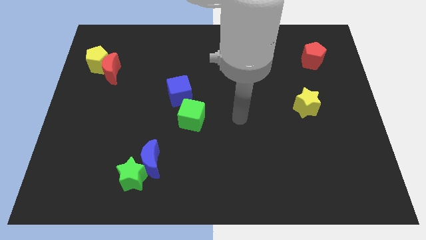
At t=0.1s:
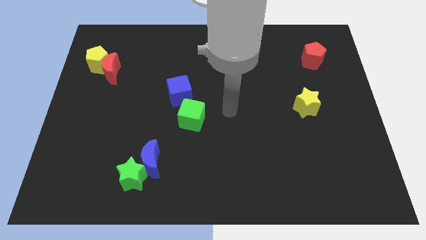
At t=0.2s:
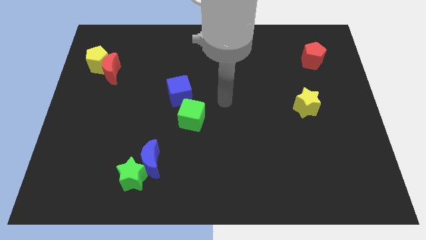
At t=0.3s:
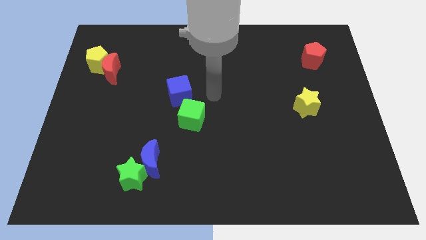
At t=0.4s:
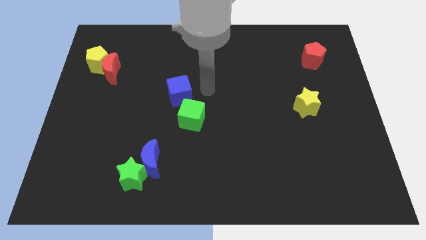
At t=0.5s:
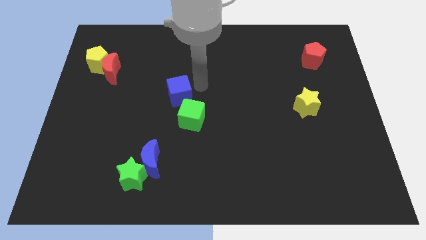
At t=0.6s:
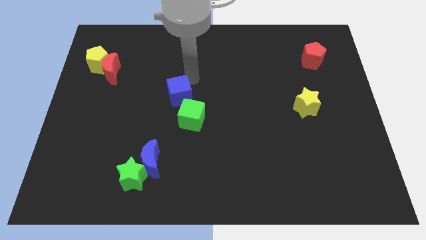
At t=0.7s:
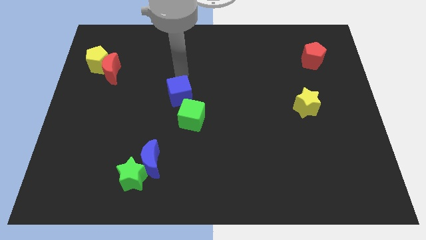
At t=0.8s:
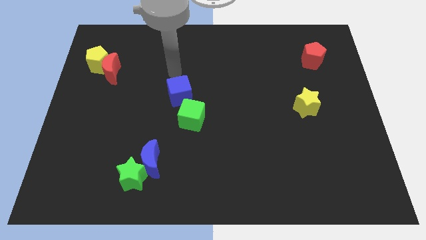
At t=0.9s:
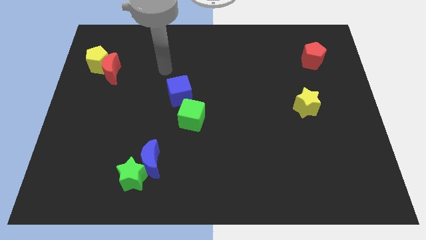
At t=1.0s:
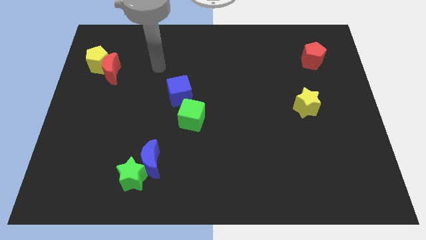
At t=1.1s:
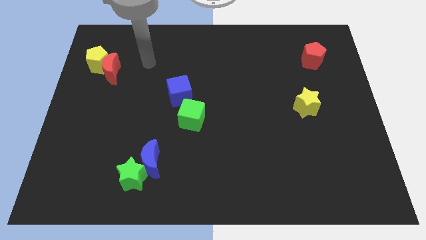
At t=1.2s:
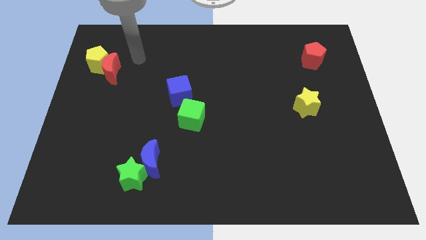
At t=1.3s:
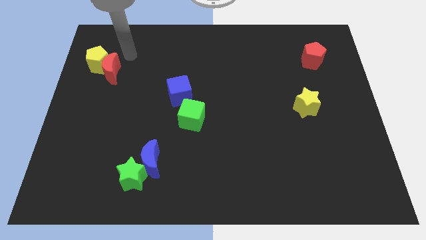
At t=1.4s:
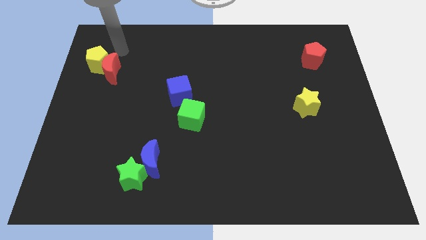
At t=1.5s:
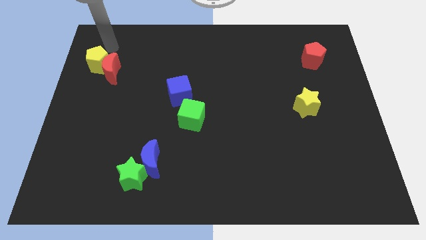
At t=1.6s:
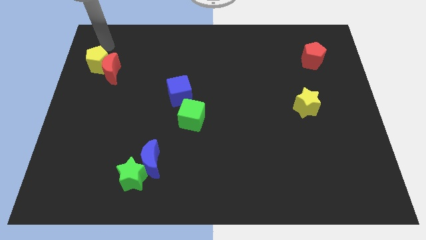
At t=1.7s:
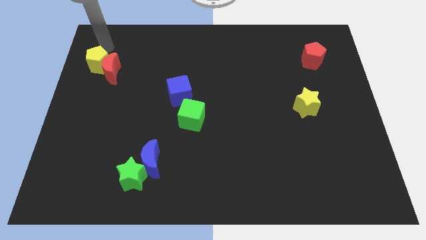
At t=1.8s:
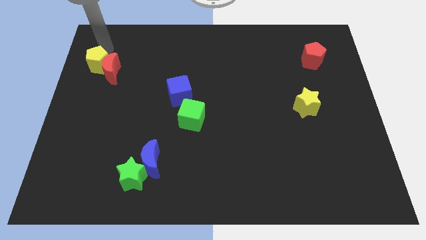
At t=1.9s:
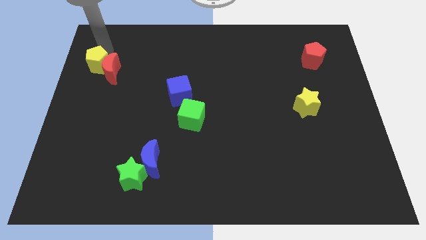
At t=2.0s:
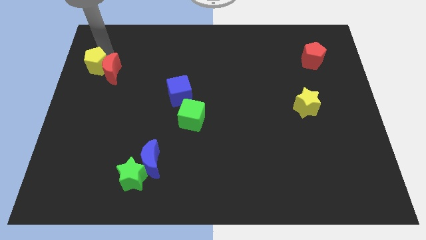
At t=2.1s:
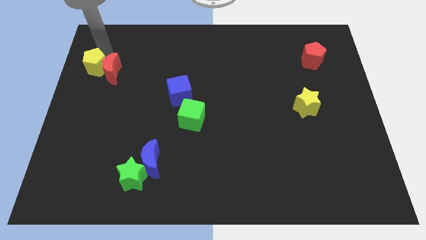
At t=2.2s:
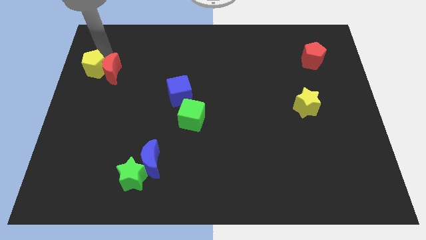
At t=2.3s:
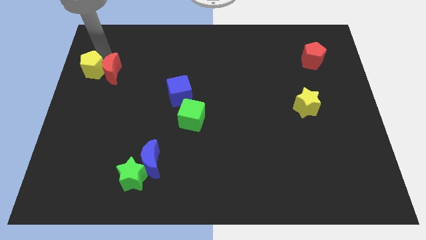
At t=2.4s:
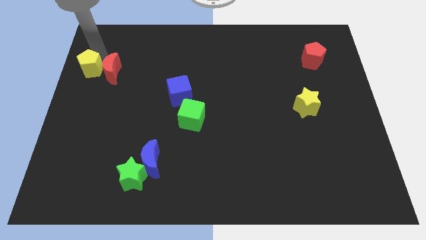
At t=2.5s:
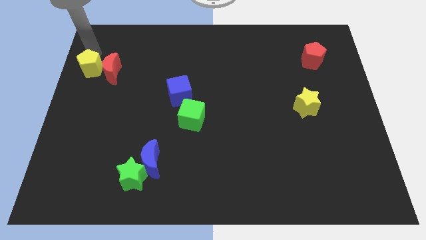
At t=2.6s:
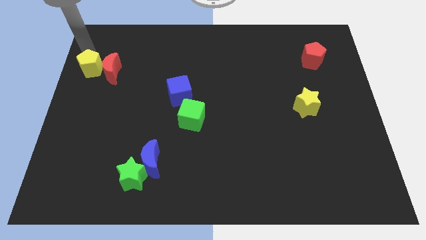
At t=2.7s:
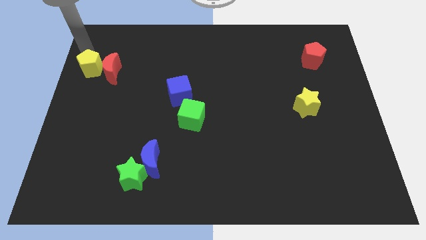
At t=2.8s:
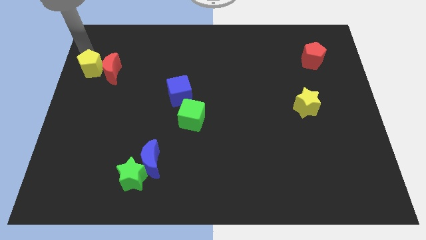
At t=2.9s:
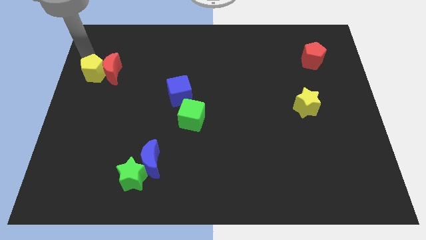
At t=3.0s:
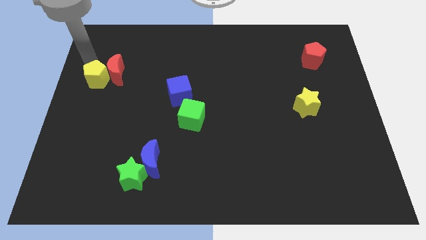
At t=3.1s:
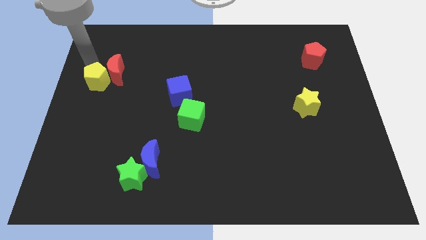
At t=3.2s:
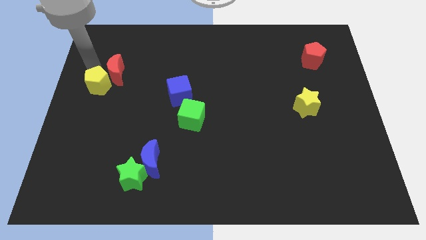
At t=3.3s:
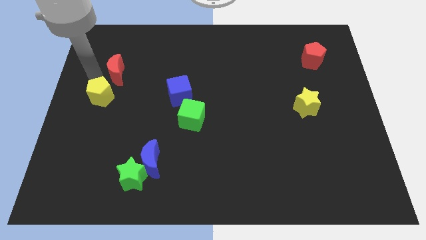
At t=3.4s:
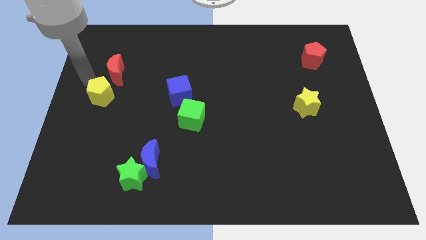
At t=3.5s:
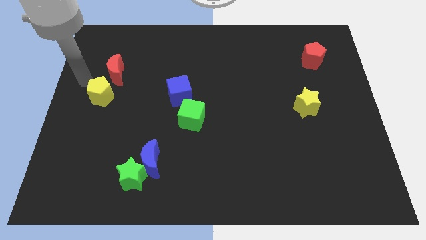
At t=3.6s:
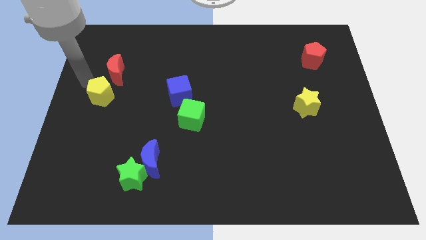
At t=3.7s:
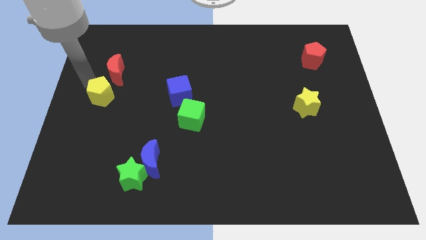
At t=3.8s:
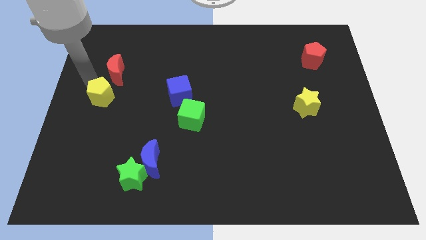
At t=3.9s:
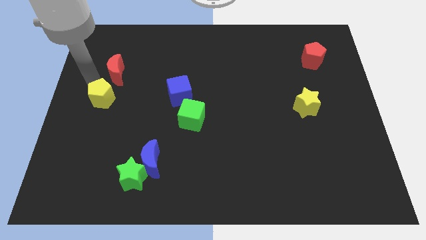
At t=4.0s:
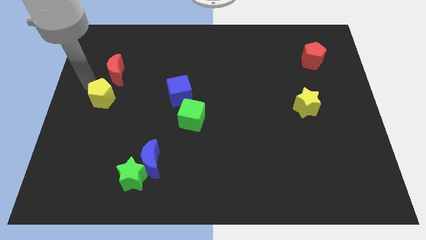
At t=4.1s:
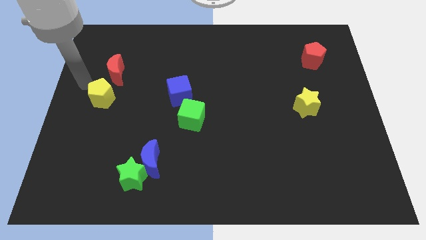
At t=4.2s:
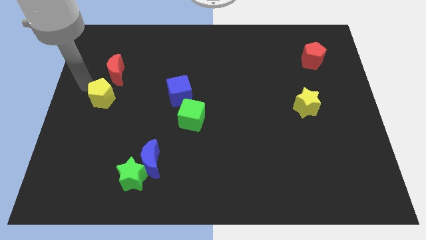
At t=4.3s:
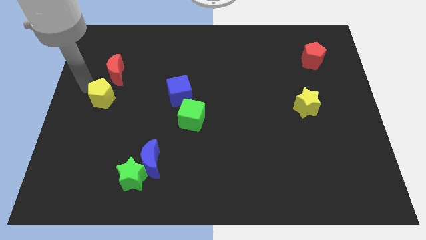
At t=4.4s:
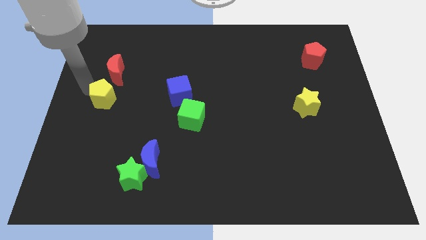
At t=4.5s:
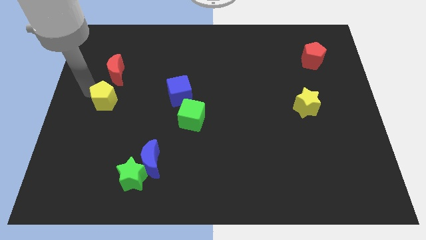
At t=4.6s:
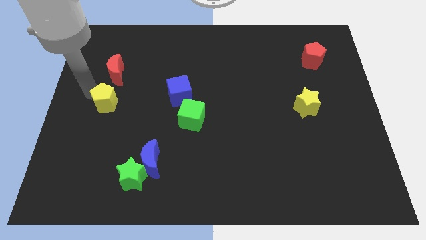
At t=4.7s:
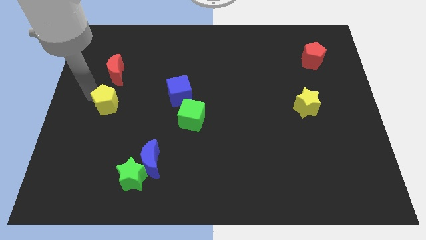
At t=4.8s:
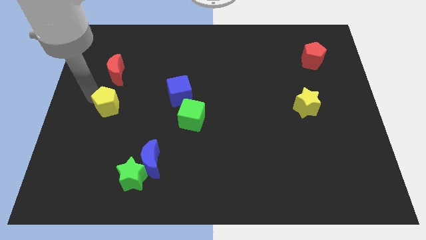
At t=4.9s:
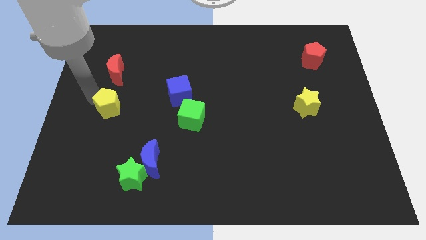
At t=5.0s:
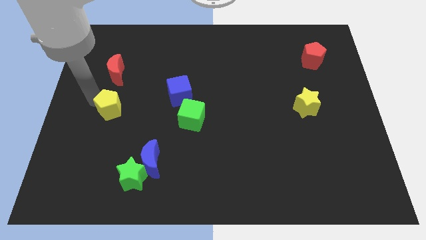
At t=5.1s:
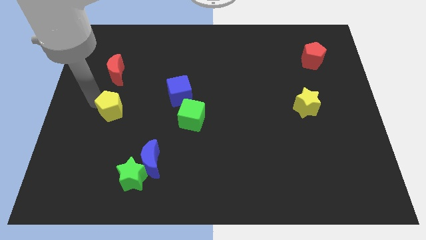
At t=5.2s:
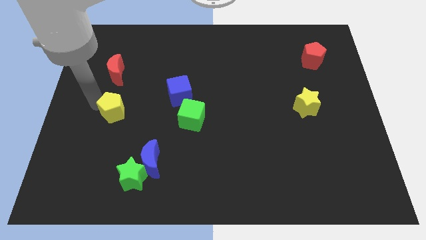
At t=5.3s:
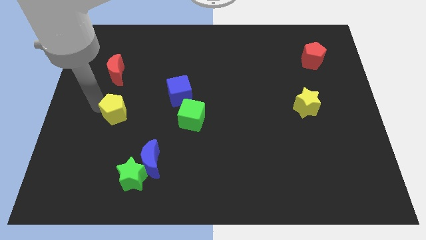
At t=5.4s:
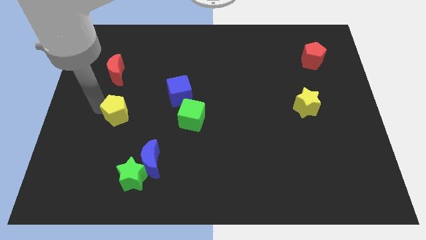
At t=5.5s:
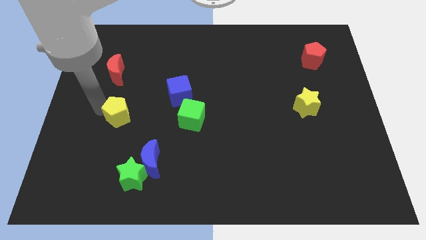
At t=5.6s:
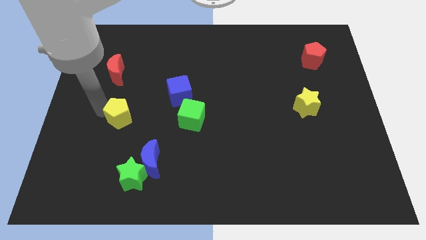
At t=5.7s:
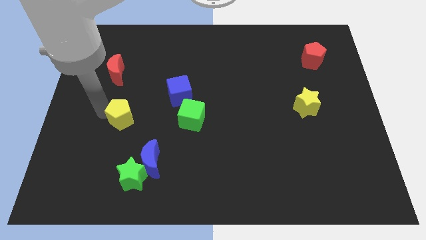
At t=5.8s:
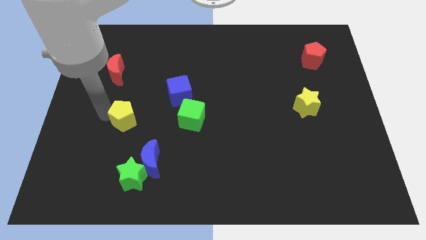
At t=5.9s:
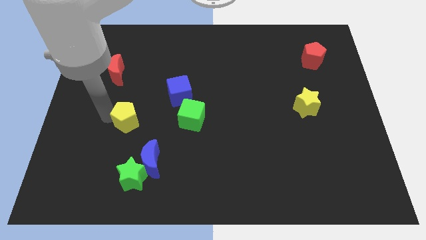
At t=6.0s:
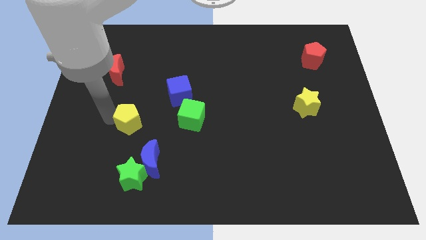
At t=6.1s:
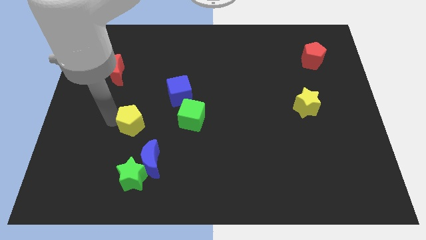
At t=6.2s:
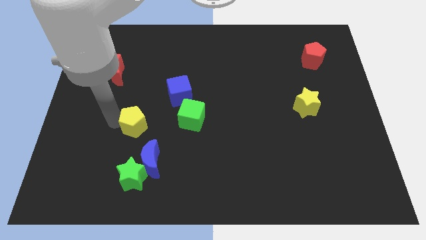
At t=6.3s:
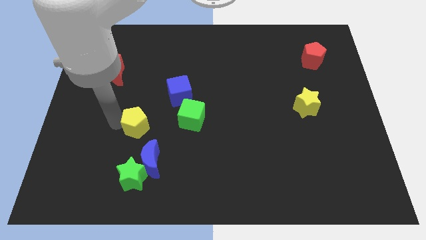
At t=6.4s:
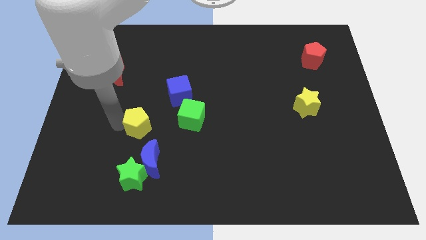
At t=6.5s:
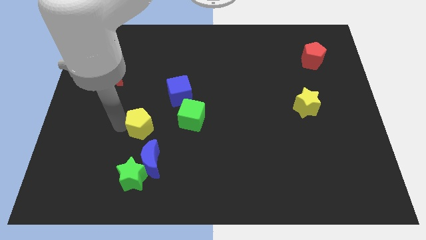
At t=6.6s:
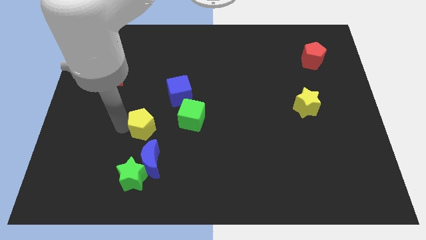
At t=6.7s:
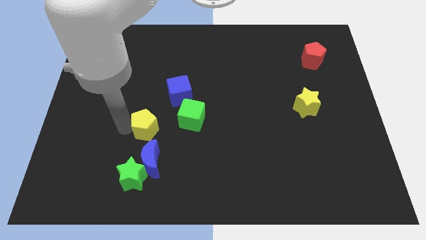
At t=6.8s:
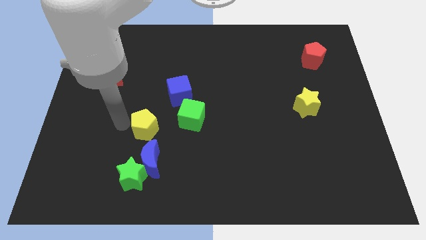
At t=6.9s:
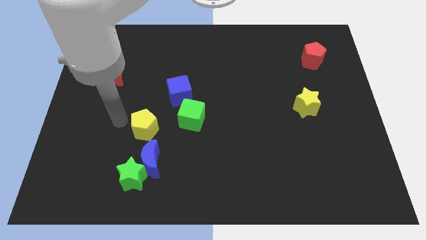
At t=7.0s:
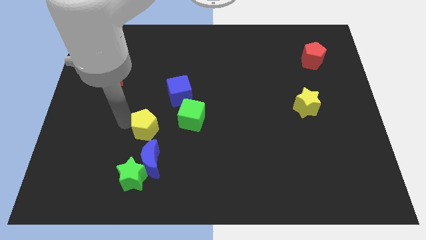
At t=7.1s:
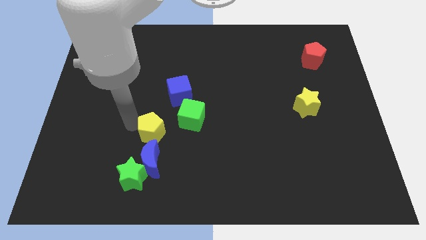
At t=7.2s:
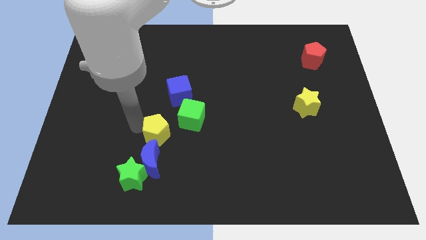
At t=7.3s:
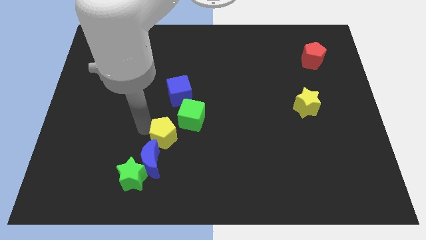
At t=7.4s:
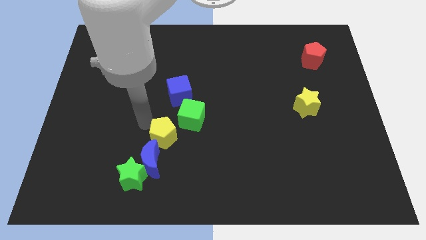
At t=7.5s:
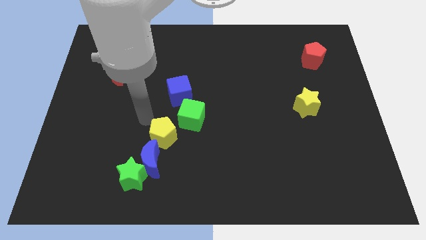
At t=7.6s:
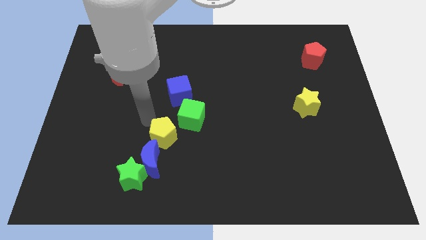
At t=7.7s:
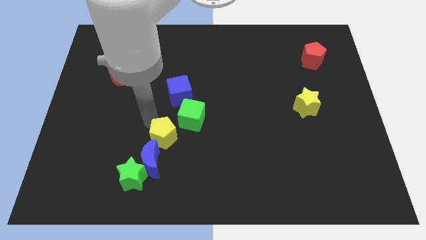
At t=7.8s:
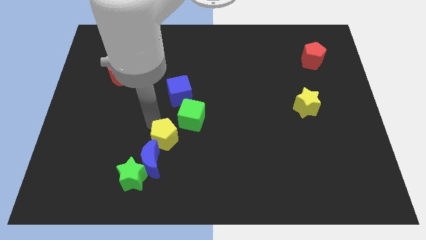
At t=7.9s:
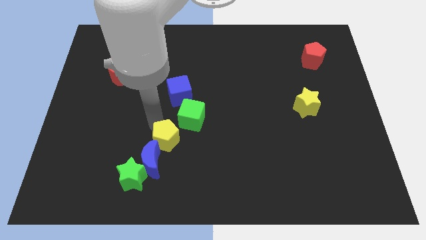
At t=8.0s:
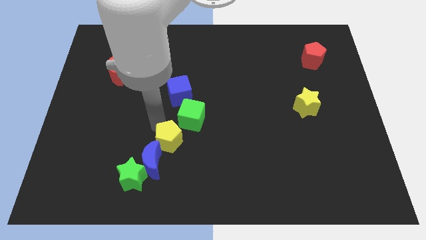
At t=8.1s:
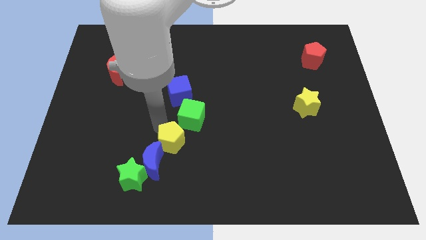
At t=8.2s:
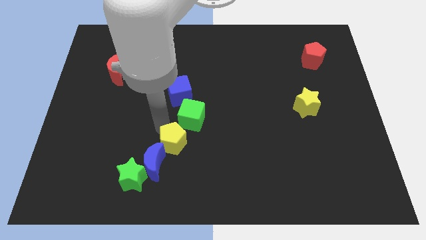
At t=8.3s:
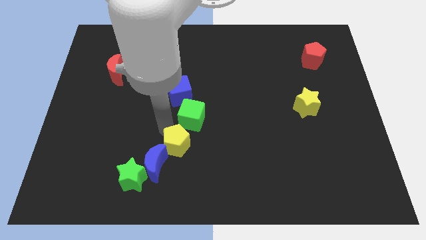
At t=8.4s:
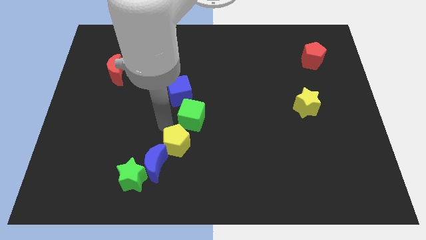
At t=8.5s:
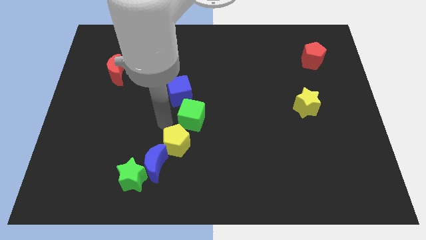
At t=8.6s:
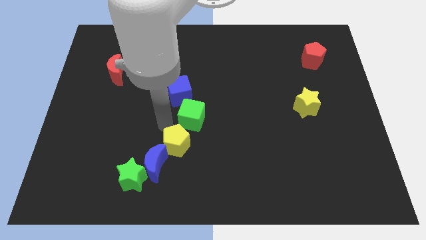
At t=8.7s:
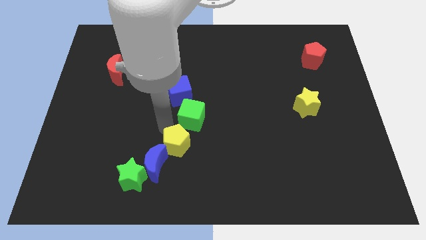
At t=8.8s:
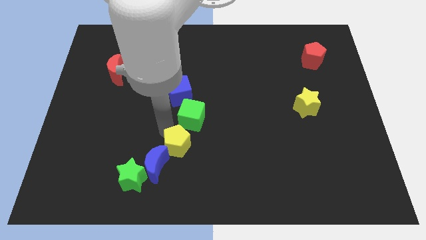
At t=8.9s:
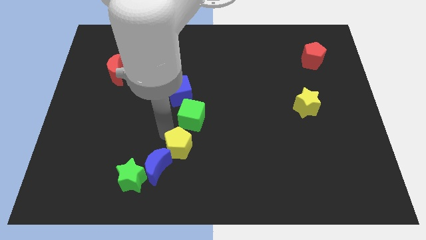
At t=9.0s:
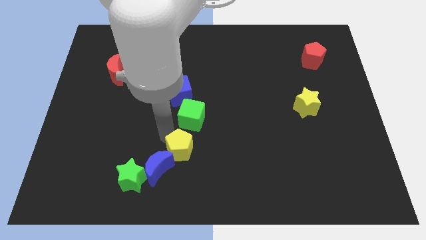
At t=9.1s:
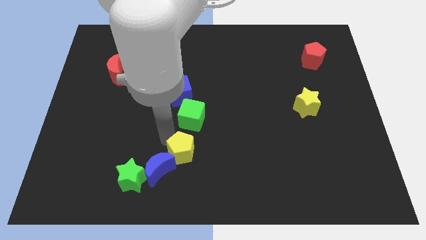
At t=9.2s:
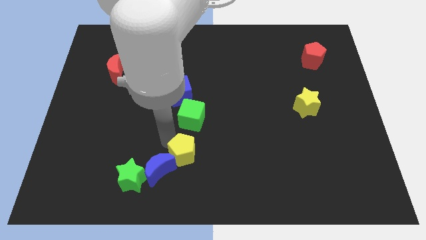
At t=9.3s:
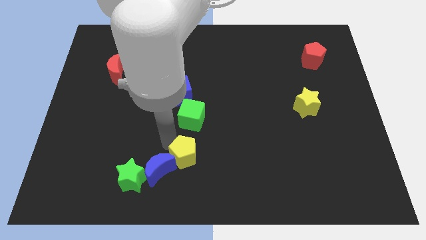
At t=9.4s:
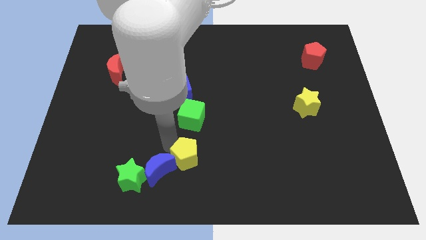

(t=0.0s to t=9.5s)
move the yellow pentagon to the bottom
